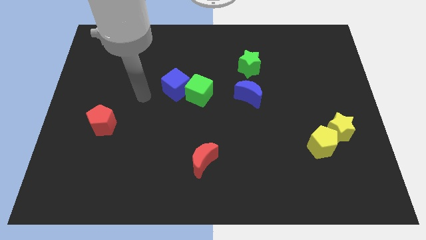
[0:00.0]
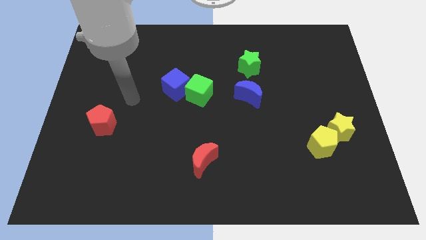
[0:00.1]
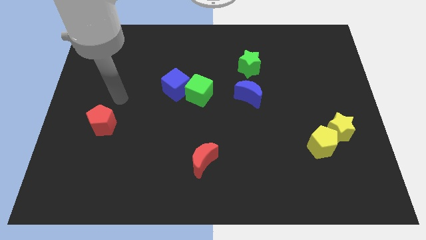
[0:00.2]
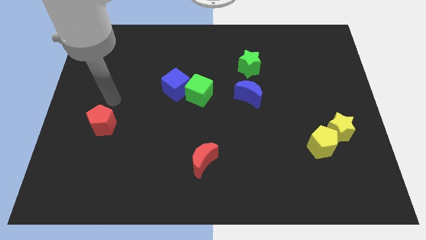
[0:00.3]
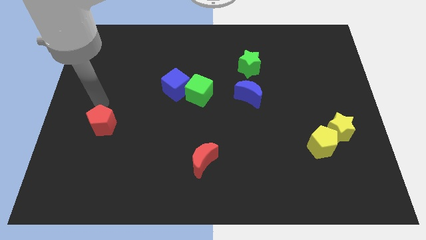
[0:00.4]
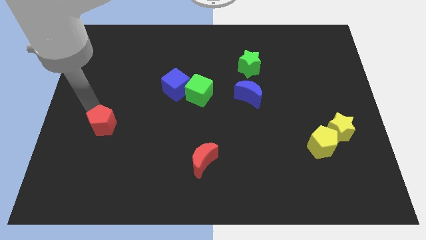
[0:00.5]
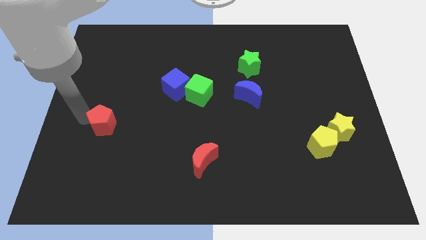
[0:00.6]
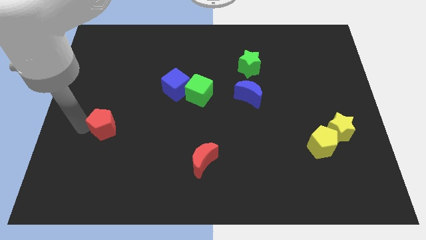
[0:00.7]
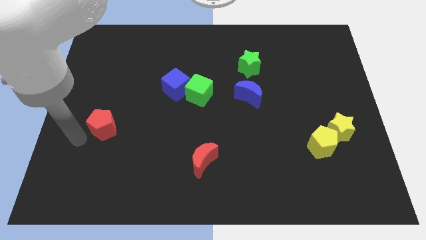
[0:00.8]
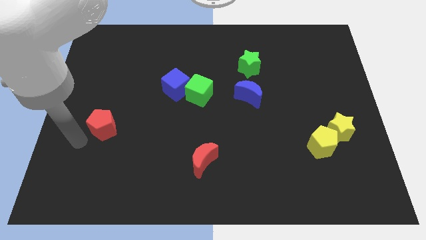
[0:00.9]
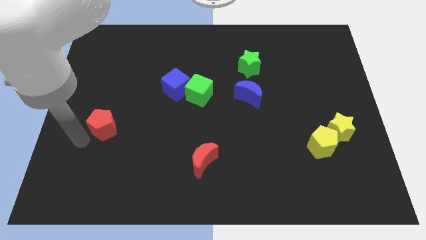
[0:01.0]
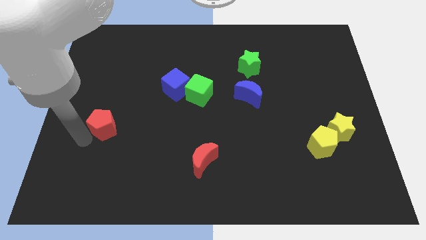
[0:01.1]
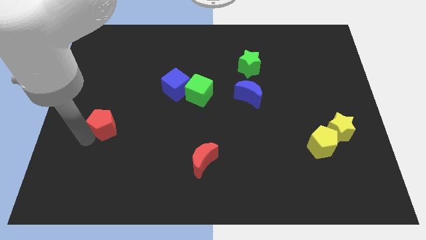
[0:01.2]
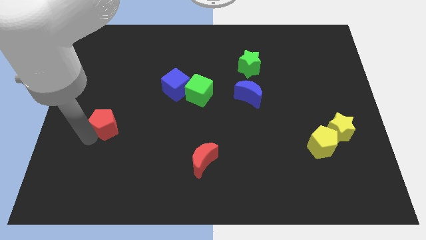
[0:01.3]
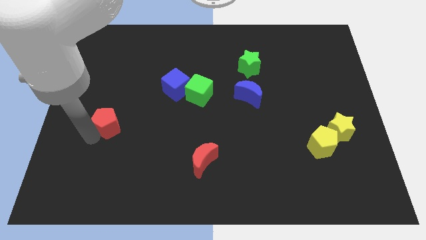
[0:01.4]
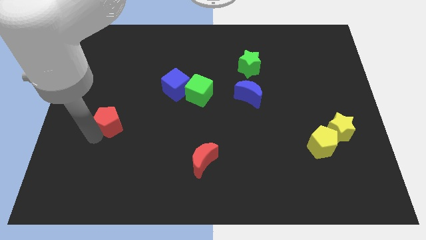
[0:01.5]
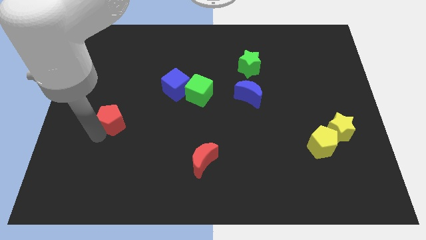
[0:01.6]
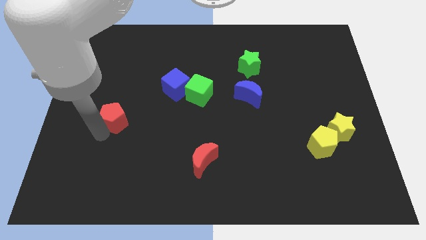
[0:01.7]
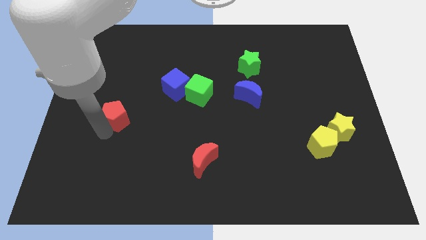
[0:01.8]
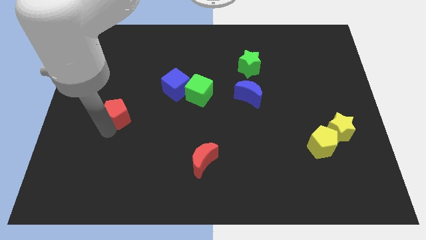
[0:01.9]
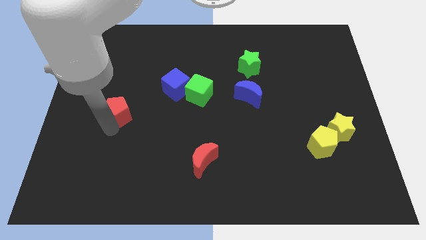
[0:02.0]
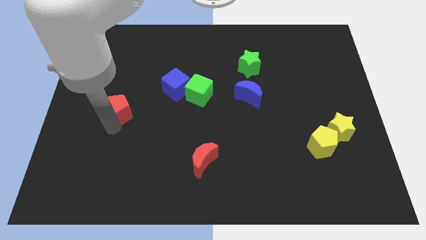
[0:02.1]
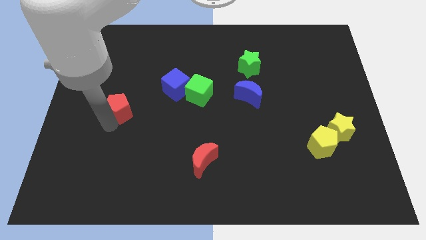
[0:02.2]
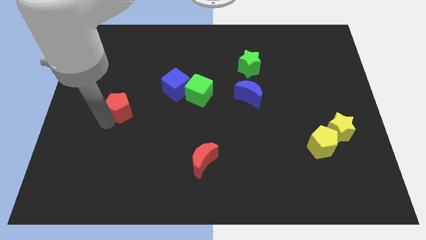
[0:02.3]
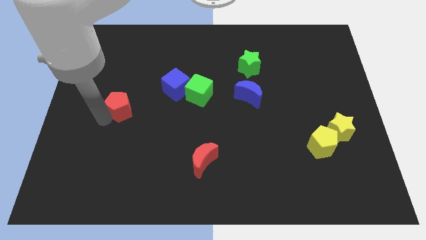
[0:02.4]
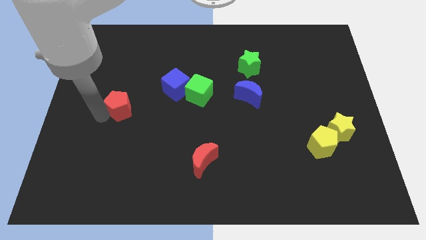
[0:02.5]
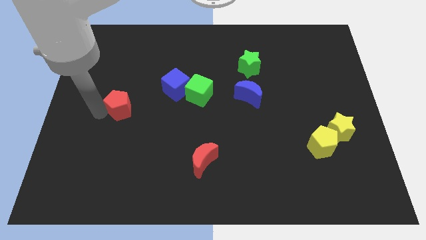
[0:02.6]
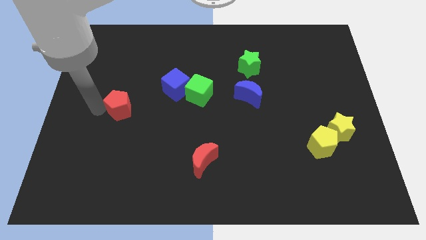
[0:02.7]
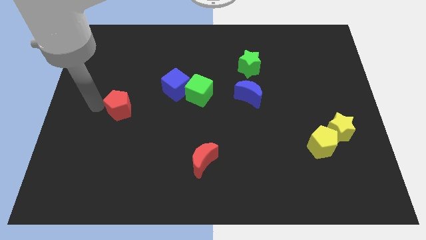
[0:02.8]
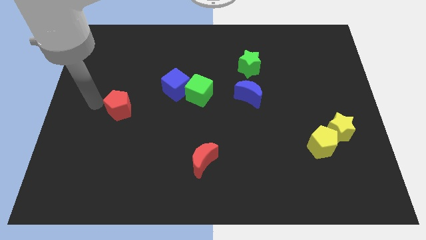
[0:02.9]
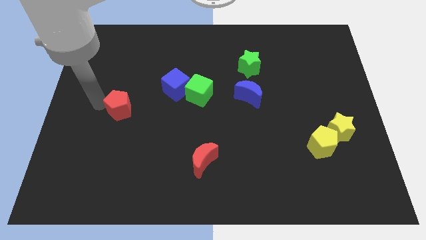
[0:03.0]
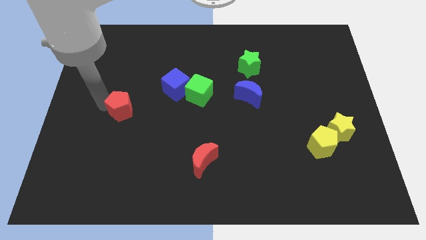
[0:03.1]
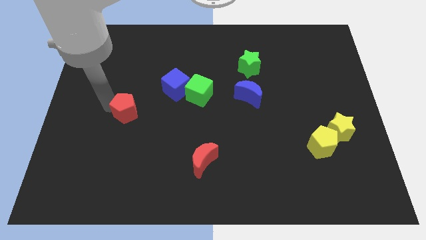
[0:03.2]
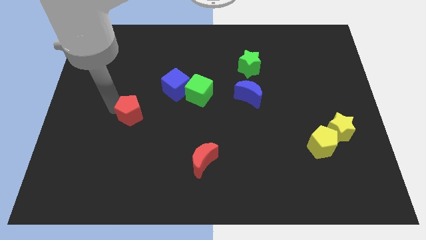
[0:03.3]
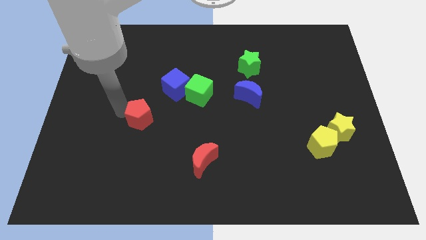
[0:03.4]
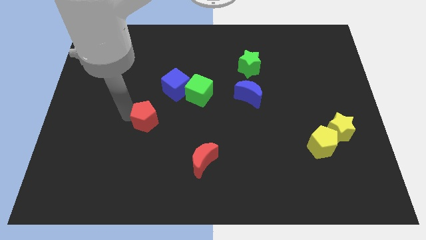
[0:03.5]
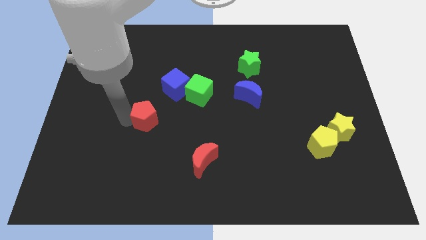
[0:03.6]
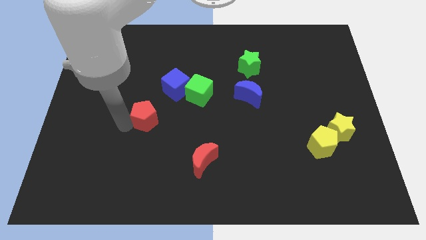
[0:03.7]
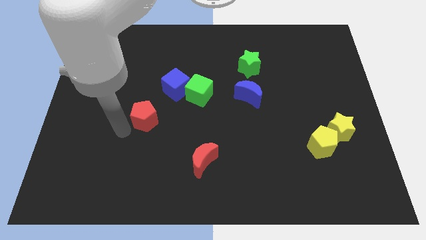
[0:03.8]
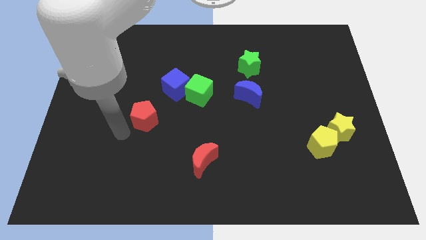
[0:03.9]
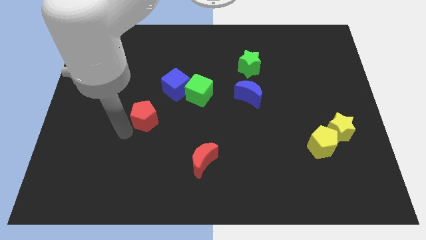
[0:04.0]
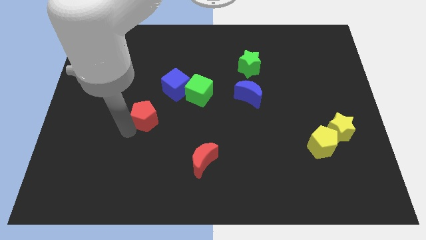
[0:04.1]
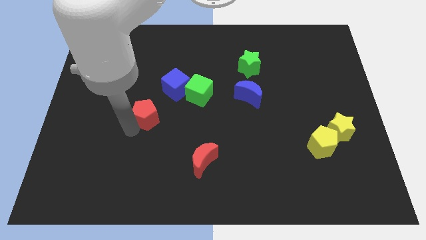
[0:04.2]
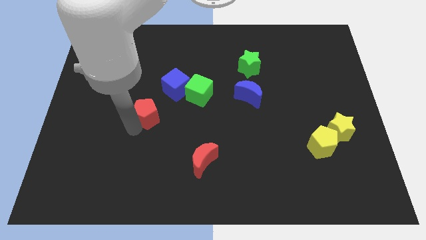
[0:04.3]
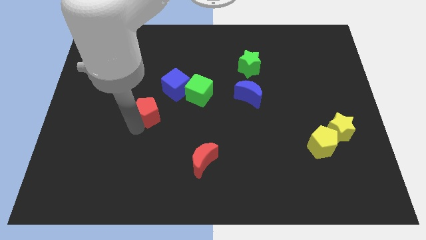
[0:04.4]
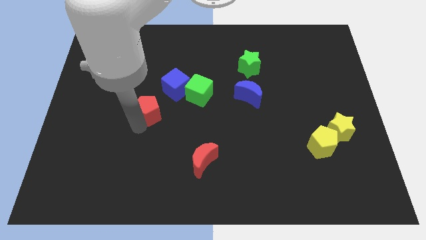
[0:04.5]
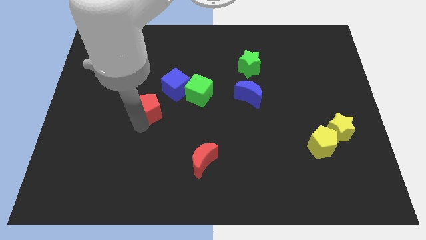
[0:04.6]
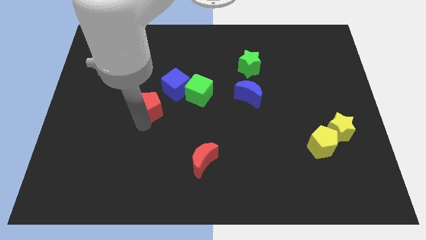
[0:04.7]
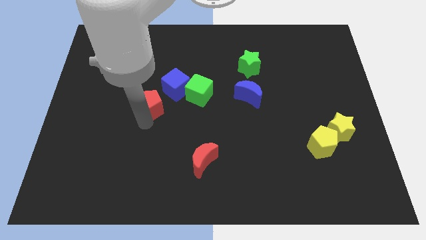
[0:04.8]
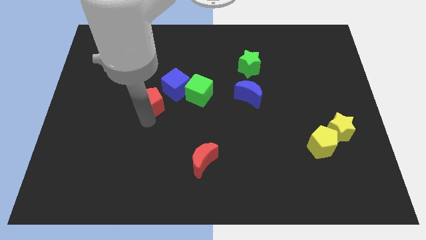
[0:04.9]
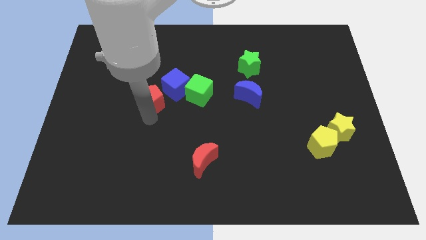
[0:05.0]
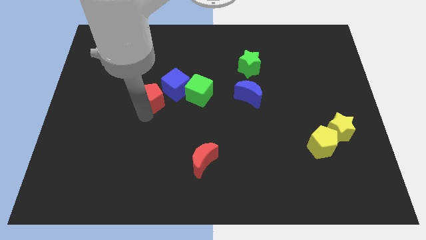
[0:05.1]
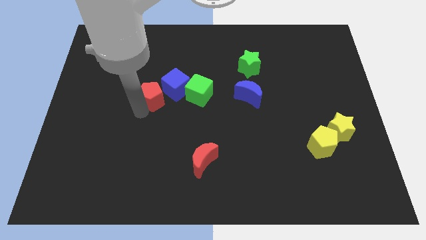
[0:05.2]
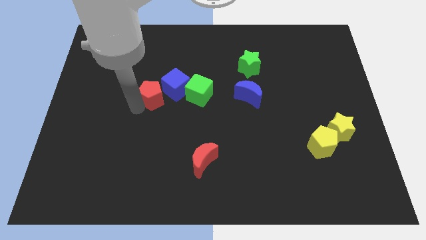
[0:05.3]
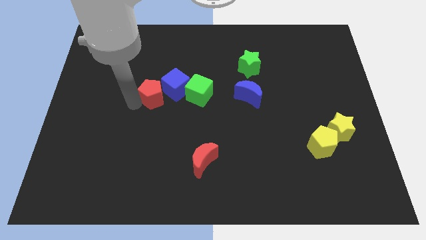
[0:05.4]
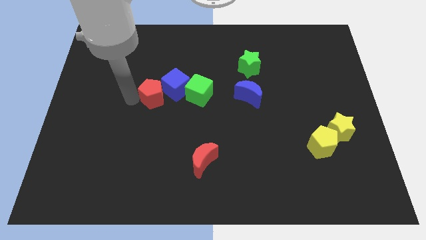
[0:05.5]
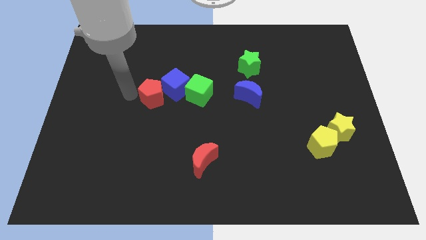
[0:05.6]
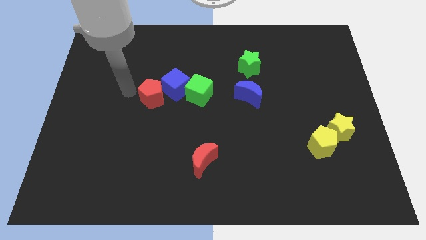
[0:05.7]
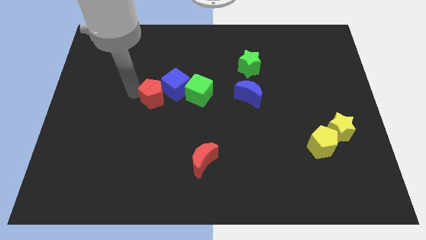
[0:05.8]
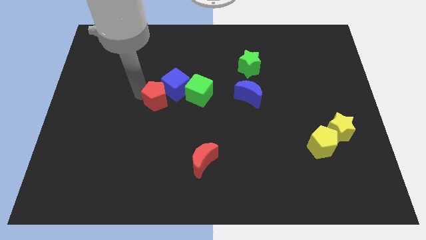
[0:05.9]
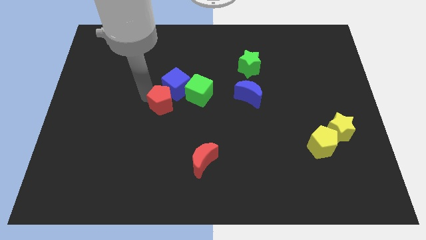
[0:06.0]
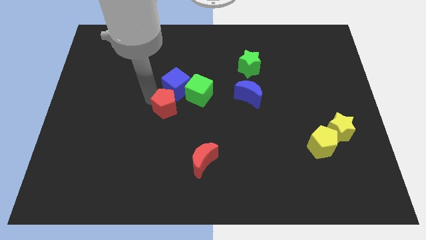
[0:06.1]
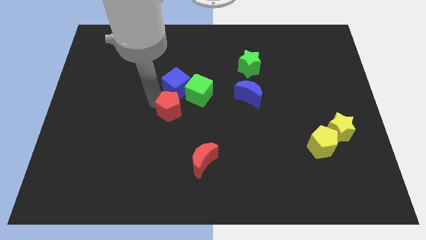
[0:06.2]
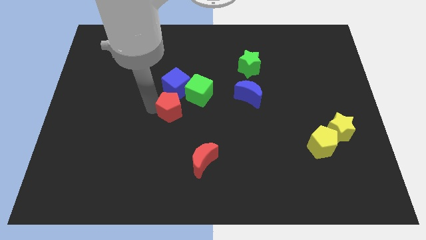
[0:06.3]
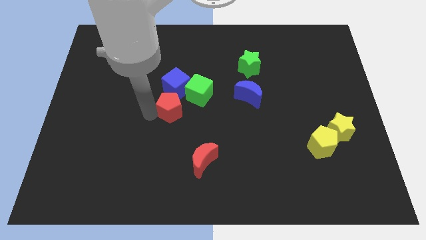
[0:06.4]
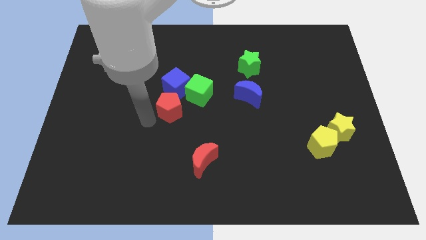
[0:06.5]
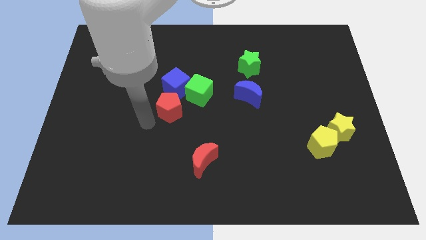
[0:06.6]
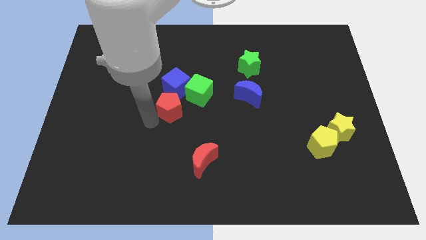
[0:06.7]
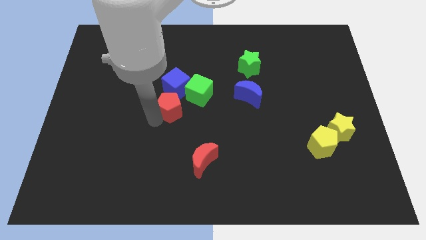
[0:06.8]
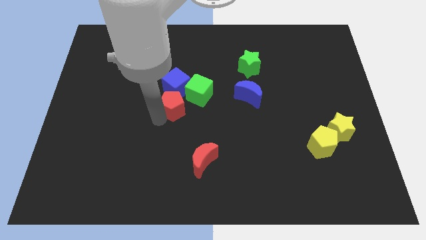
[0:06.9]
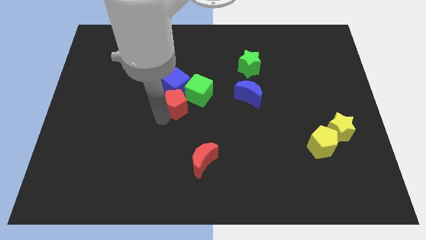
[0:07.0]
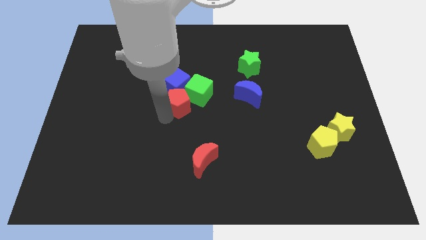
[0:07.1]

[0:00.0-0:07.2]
slide the red pentagon to the green cube

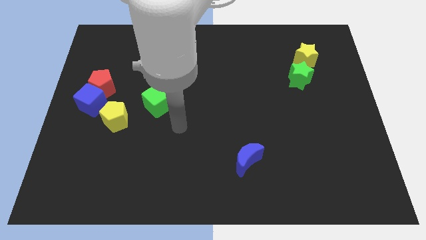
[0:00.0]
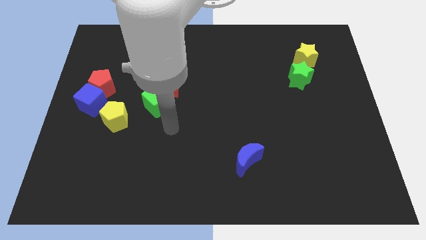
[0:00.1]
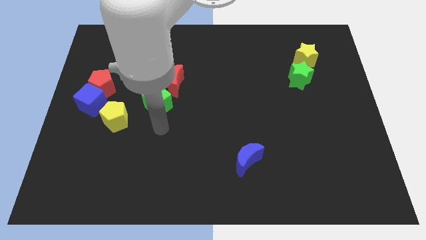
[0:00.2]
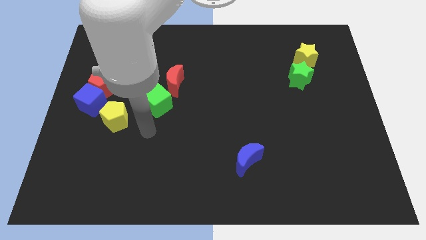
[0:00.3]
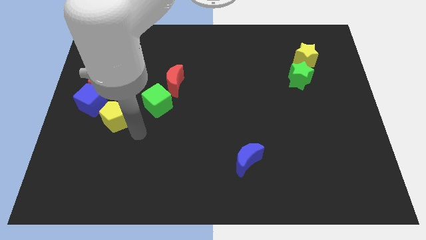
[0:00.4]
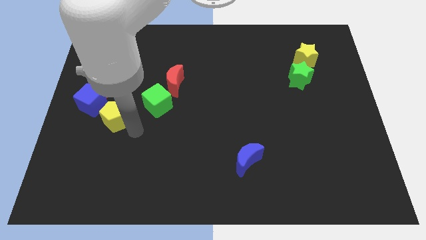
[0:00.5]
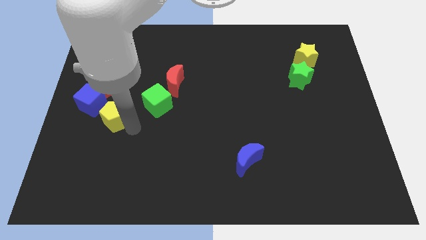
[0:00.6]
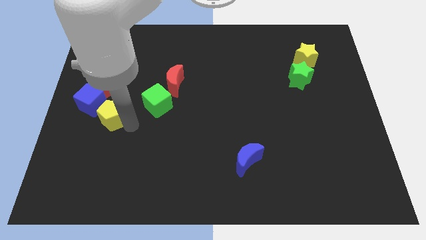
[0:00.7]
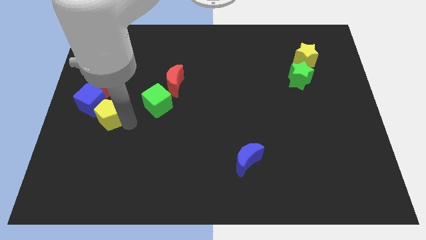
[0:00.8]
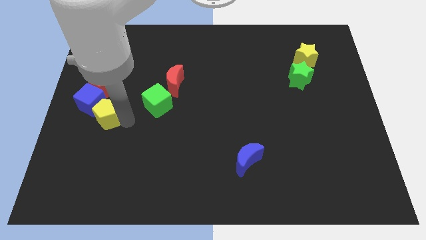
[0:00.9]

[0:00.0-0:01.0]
move the yellow pentagon next to the blue cube
